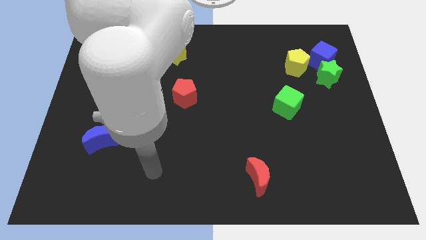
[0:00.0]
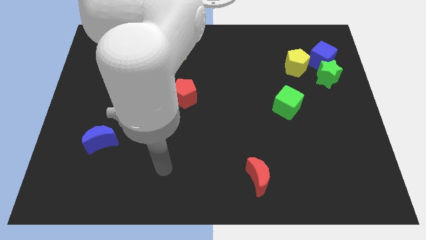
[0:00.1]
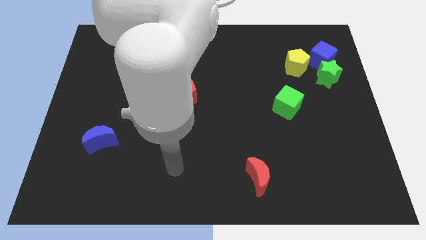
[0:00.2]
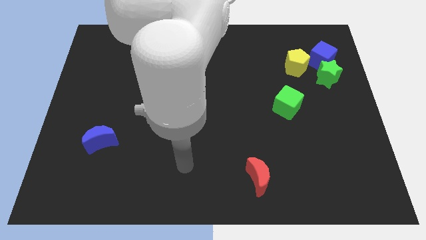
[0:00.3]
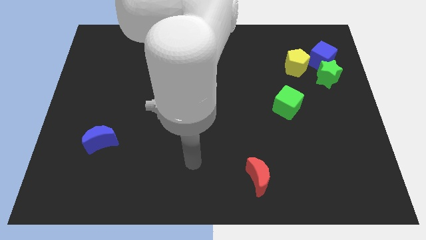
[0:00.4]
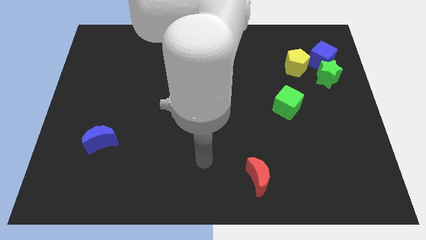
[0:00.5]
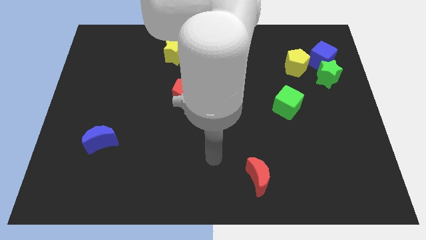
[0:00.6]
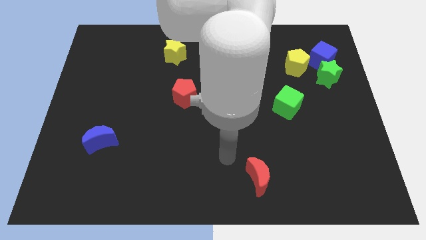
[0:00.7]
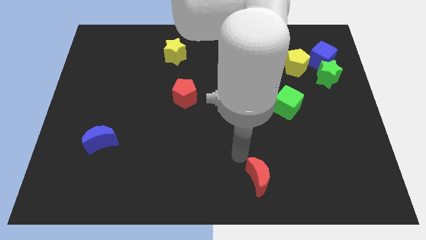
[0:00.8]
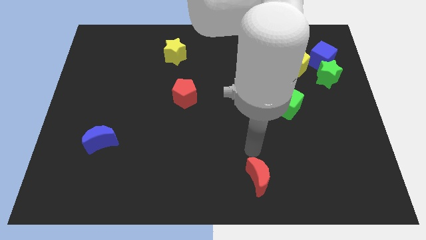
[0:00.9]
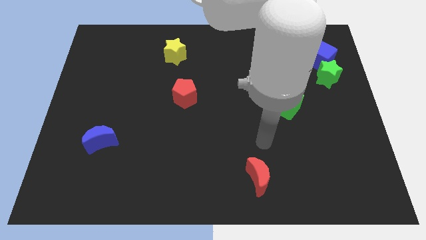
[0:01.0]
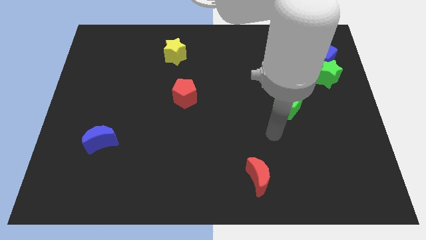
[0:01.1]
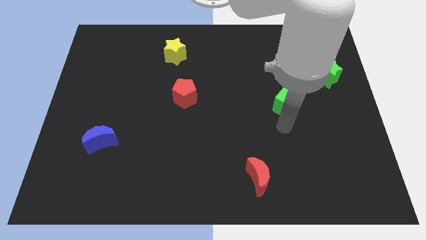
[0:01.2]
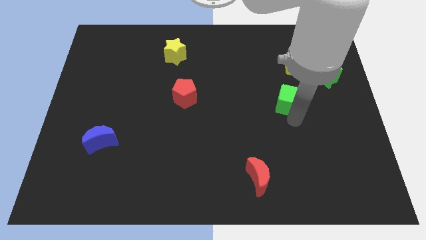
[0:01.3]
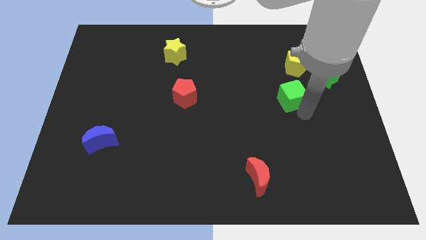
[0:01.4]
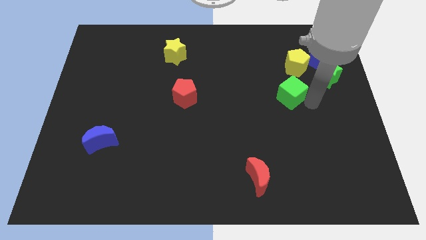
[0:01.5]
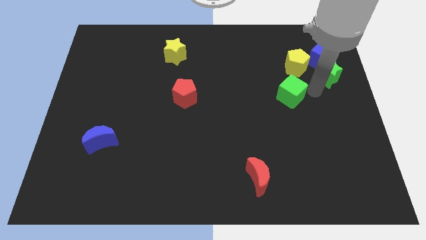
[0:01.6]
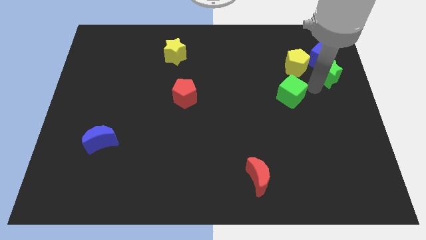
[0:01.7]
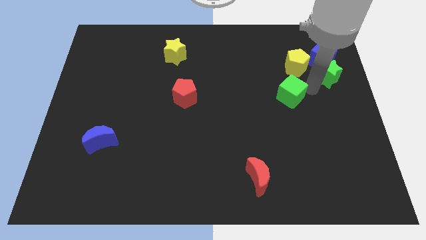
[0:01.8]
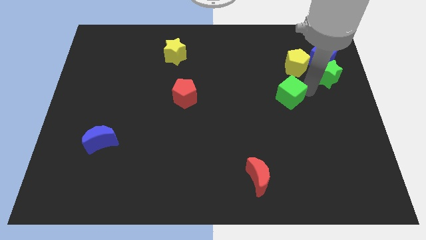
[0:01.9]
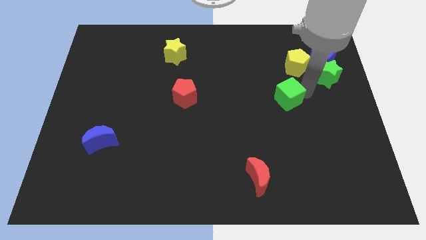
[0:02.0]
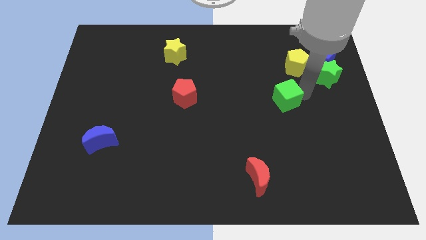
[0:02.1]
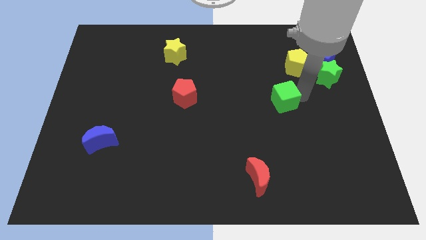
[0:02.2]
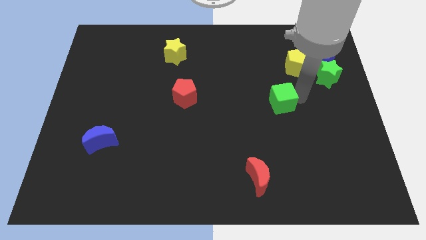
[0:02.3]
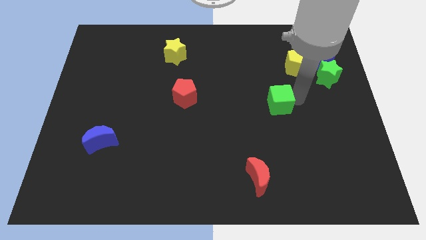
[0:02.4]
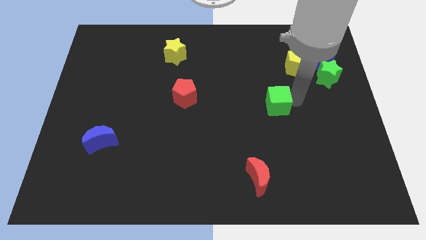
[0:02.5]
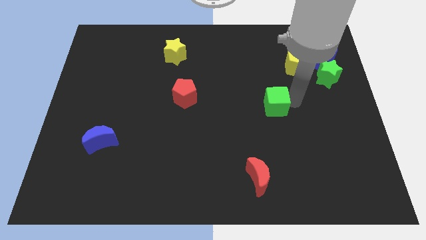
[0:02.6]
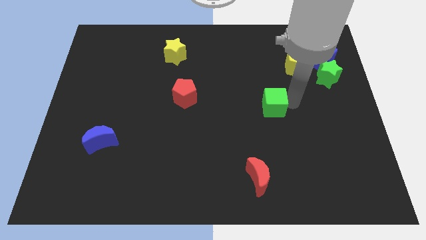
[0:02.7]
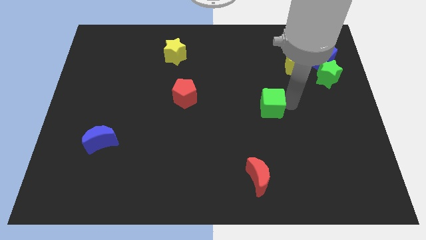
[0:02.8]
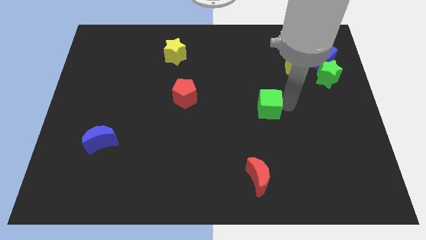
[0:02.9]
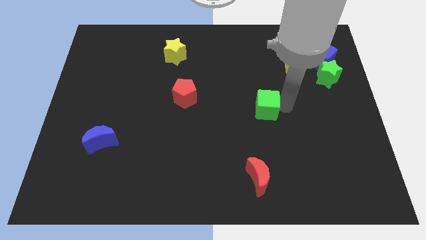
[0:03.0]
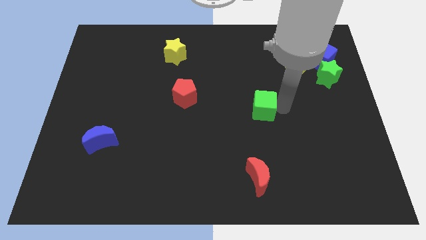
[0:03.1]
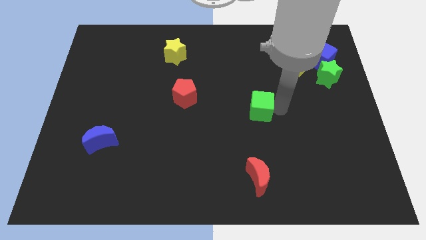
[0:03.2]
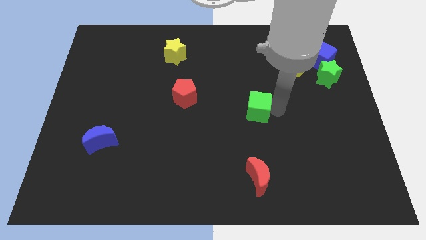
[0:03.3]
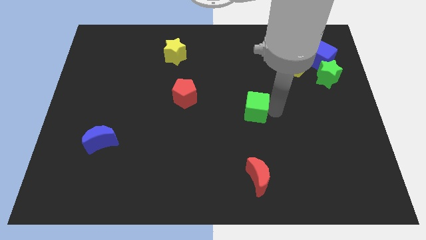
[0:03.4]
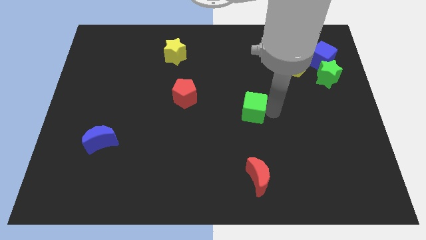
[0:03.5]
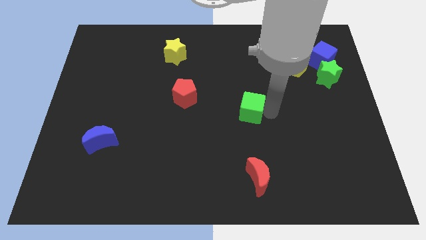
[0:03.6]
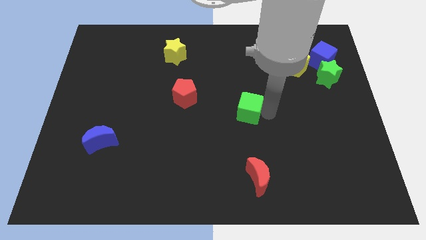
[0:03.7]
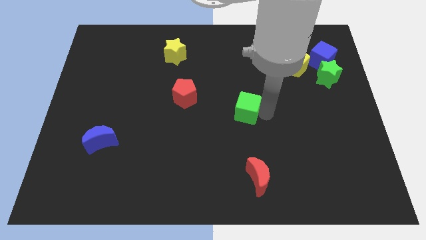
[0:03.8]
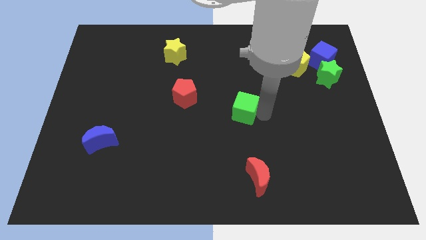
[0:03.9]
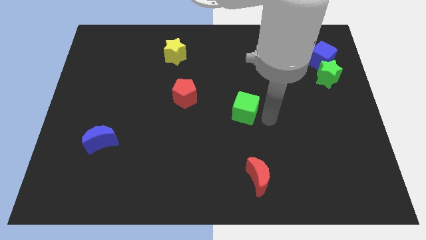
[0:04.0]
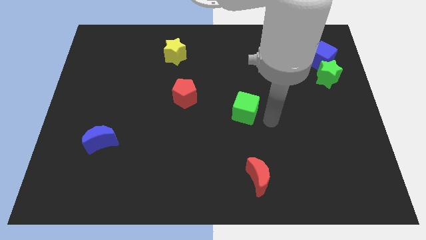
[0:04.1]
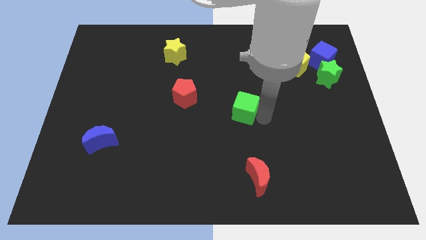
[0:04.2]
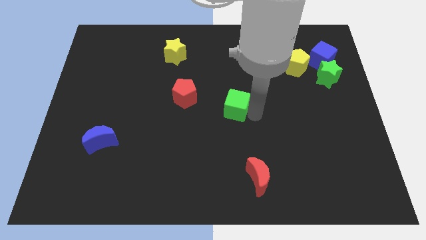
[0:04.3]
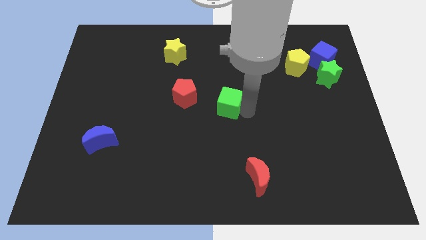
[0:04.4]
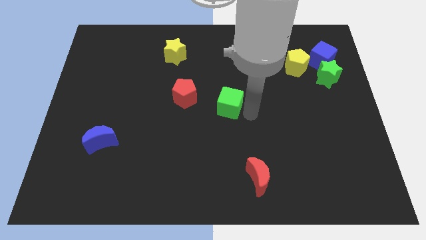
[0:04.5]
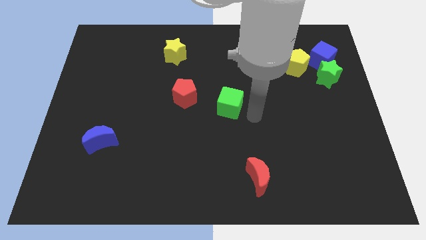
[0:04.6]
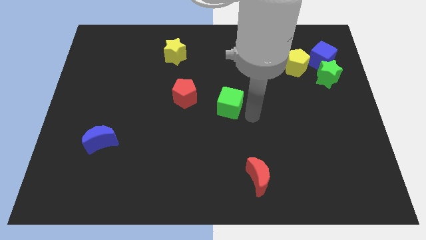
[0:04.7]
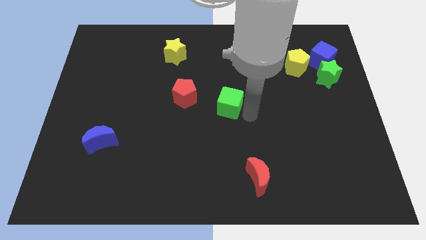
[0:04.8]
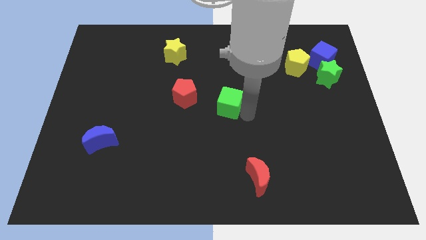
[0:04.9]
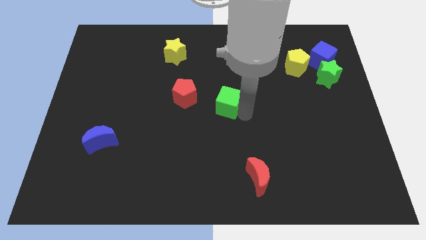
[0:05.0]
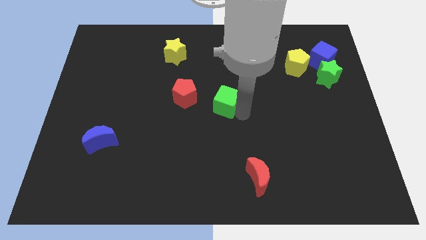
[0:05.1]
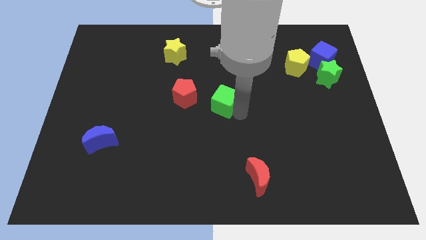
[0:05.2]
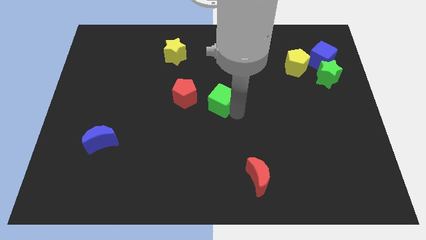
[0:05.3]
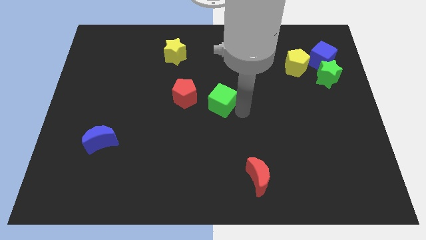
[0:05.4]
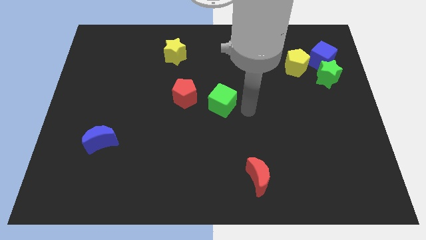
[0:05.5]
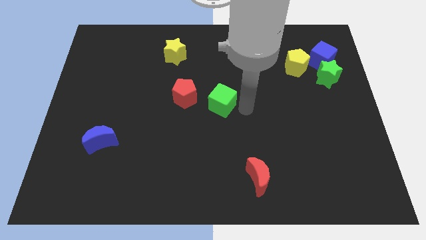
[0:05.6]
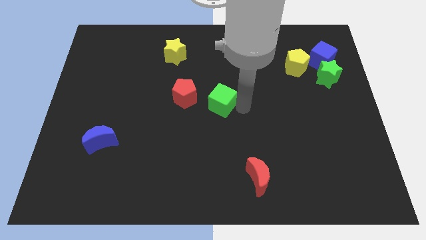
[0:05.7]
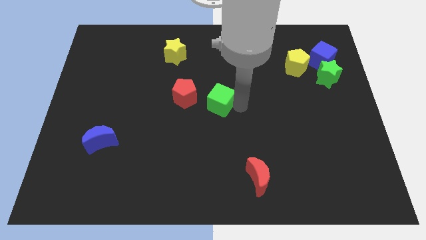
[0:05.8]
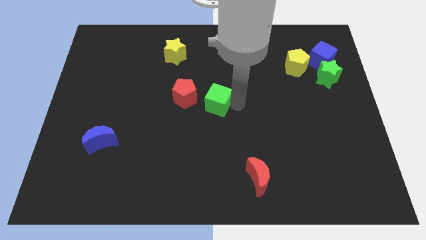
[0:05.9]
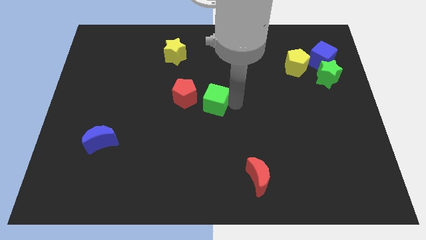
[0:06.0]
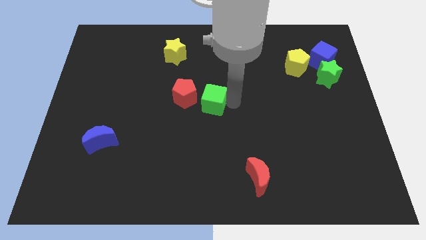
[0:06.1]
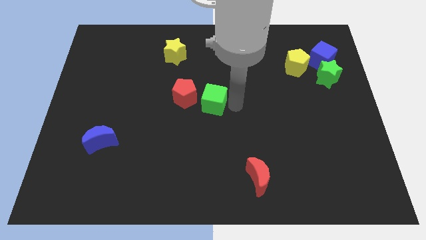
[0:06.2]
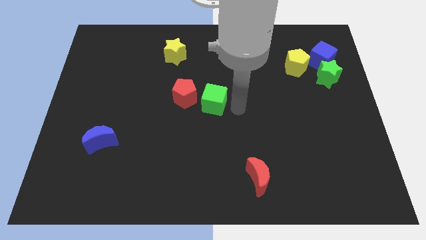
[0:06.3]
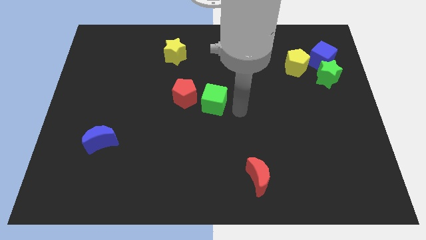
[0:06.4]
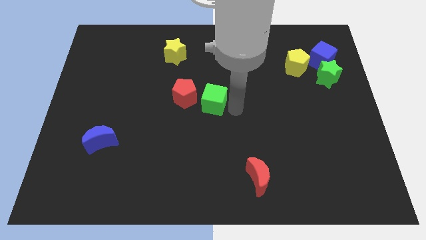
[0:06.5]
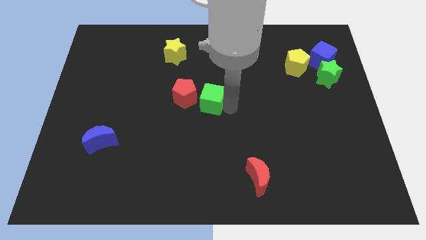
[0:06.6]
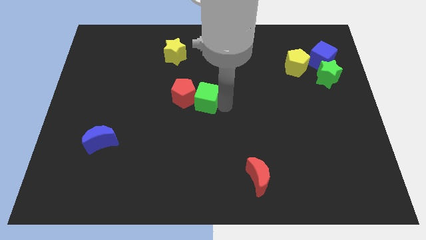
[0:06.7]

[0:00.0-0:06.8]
move the green cube to the red pentagon
